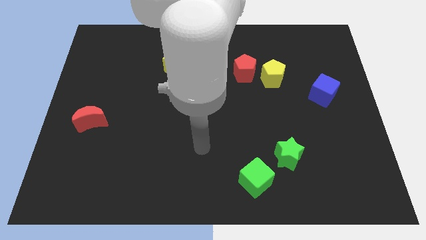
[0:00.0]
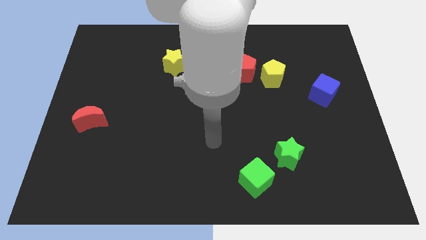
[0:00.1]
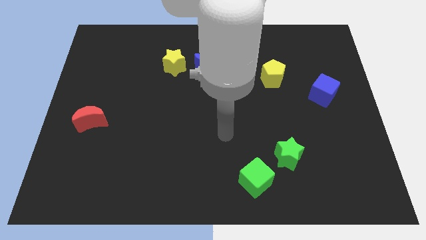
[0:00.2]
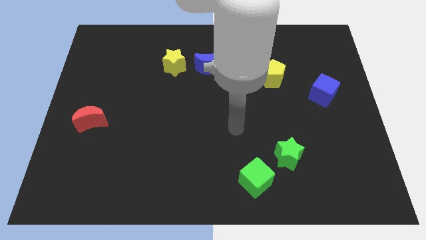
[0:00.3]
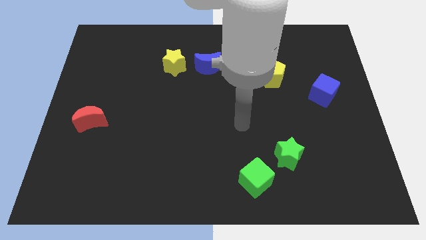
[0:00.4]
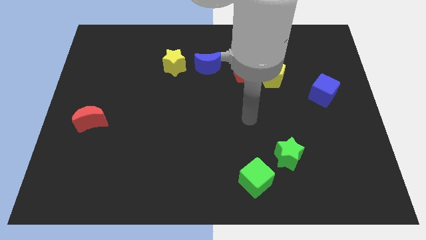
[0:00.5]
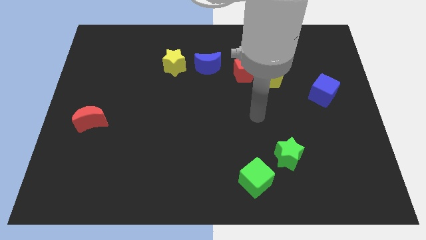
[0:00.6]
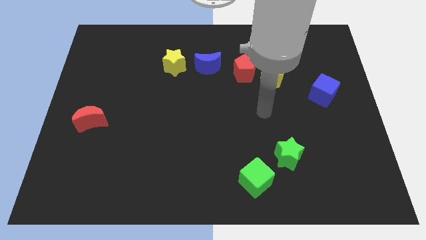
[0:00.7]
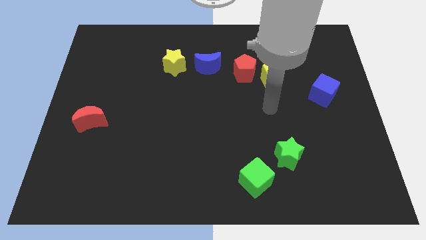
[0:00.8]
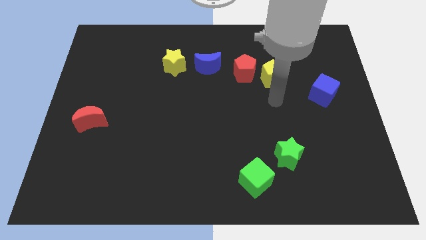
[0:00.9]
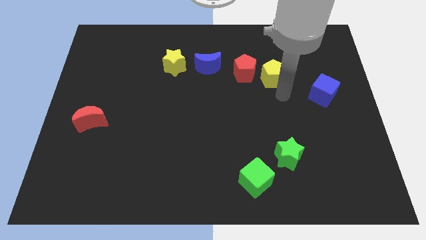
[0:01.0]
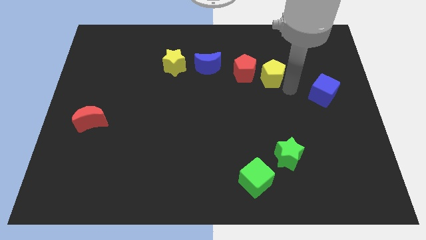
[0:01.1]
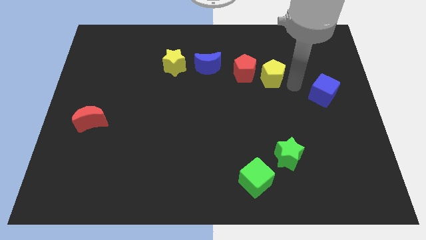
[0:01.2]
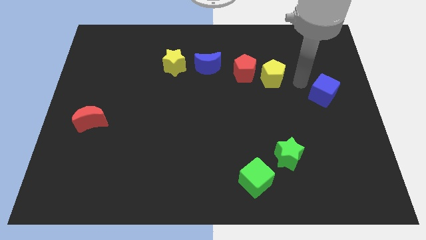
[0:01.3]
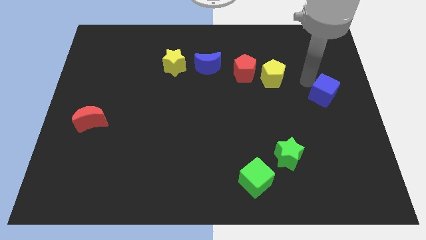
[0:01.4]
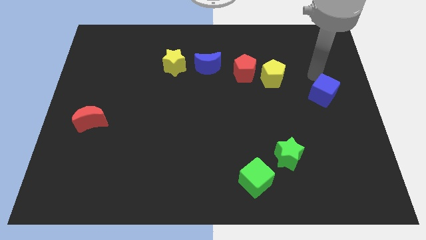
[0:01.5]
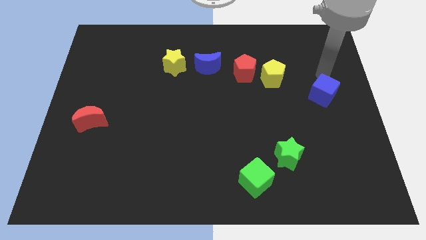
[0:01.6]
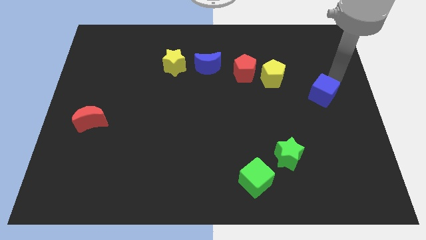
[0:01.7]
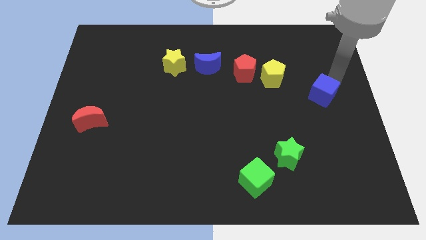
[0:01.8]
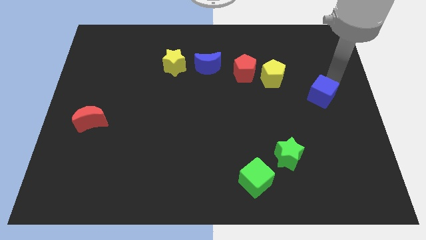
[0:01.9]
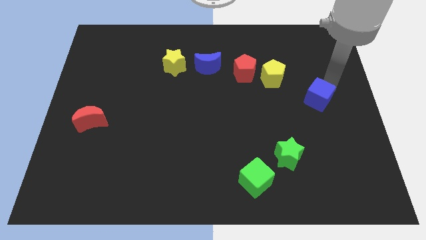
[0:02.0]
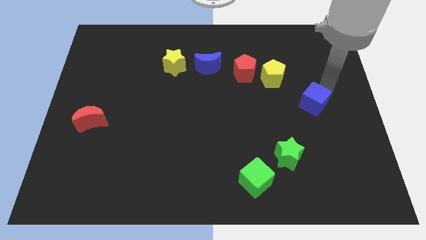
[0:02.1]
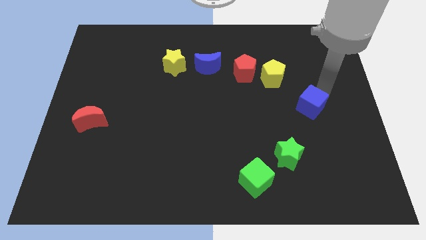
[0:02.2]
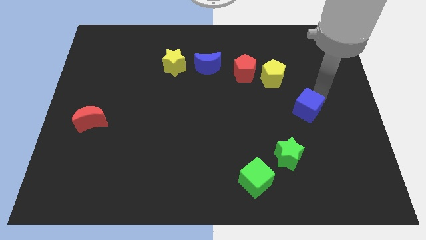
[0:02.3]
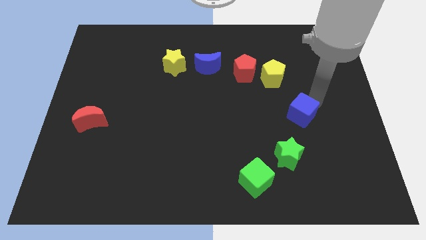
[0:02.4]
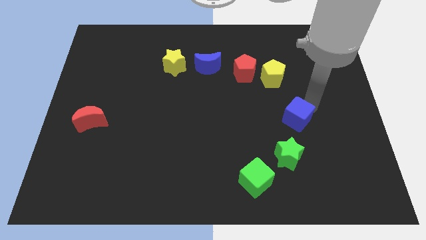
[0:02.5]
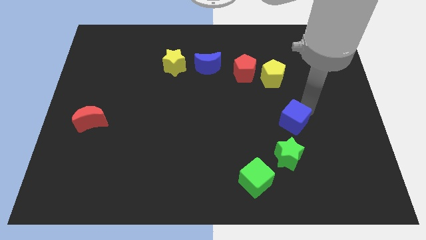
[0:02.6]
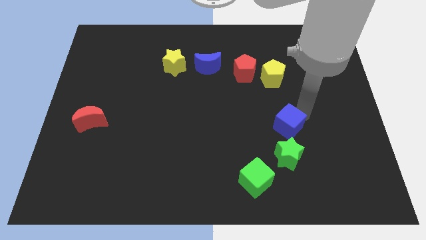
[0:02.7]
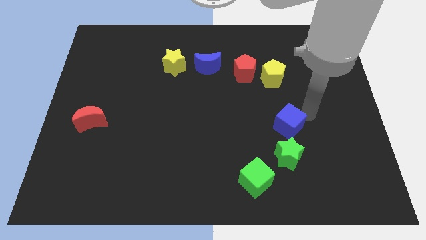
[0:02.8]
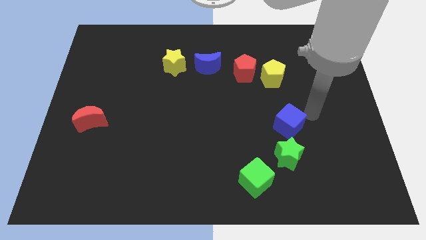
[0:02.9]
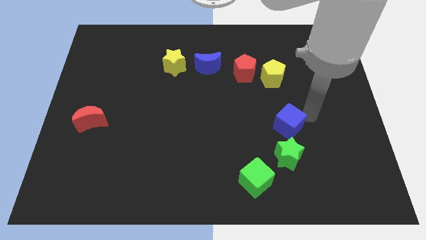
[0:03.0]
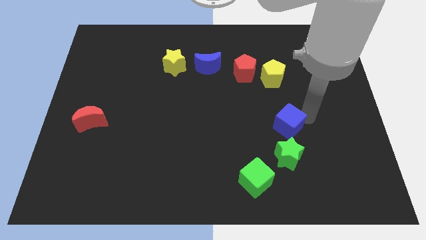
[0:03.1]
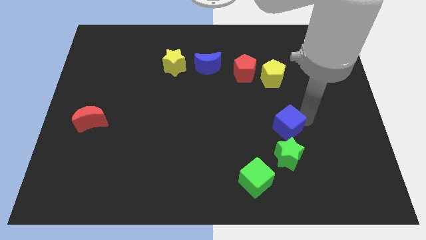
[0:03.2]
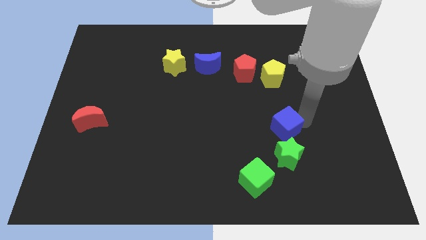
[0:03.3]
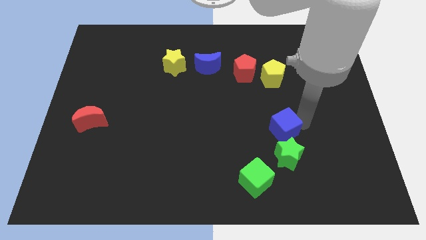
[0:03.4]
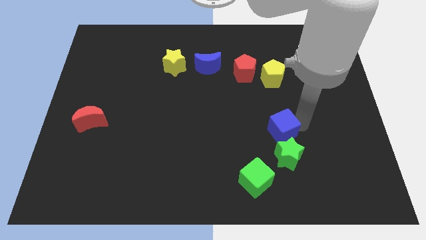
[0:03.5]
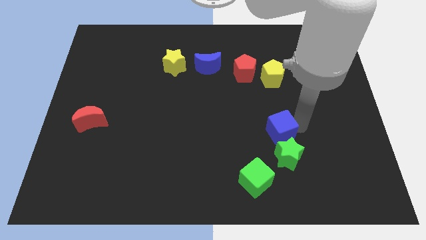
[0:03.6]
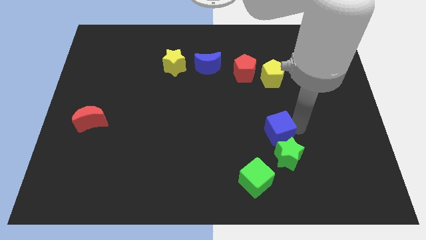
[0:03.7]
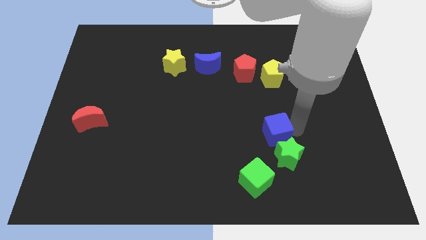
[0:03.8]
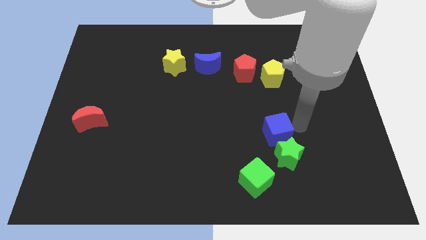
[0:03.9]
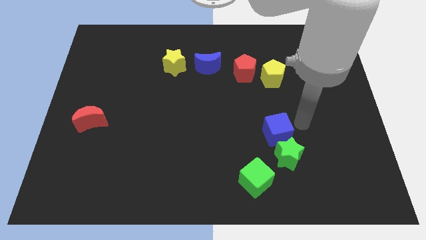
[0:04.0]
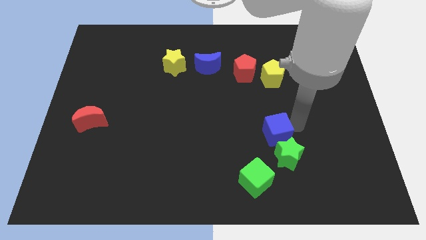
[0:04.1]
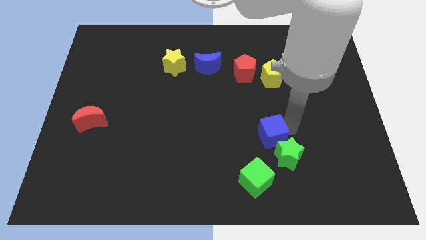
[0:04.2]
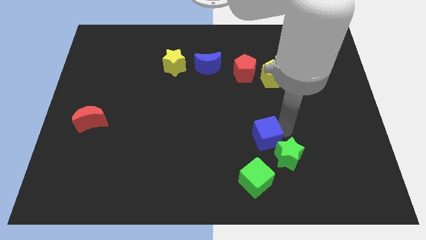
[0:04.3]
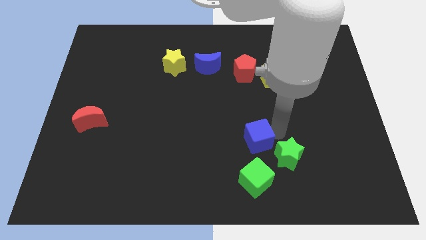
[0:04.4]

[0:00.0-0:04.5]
slide the blue cube downwards and then left

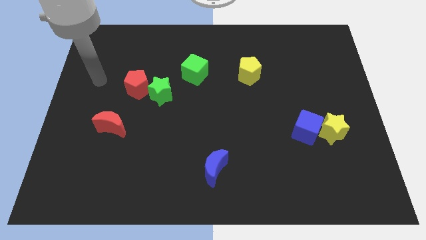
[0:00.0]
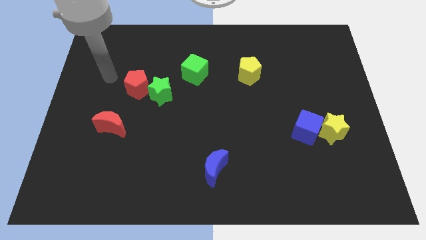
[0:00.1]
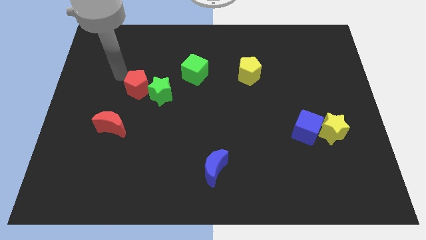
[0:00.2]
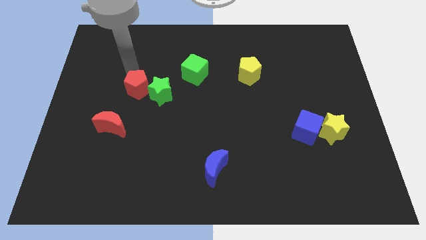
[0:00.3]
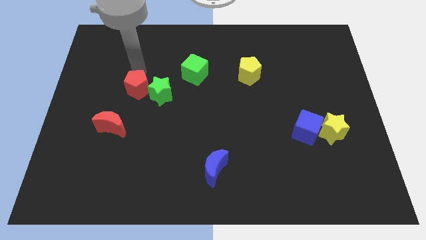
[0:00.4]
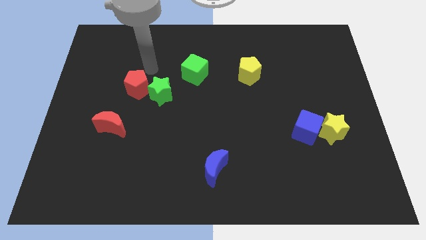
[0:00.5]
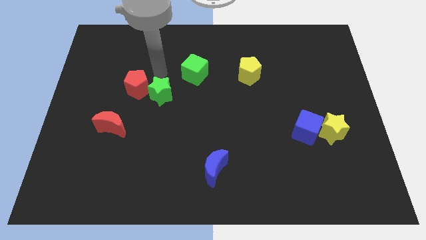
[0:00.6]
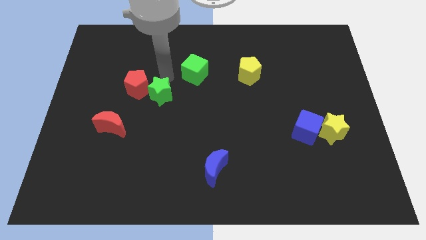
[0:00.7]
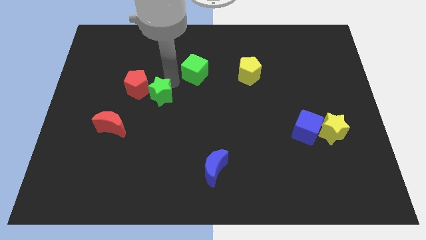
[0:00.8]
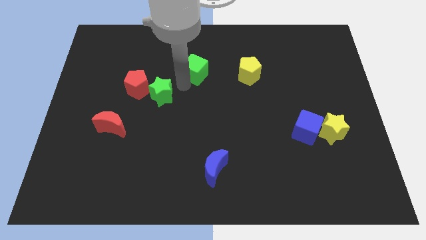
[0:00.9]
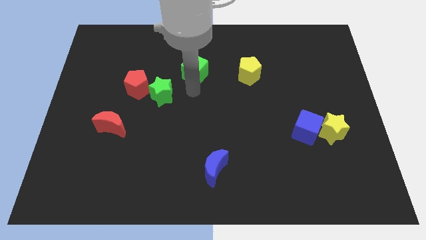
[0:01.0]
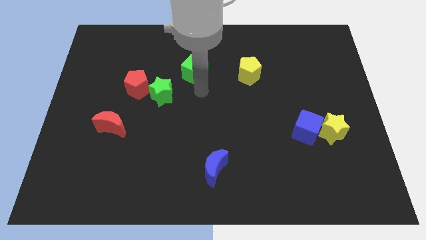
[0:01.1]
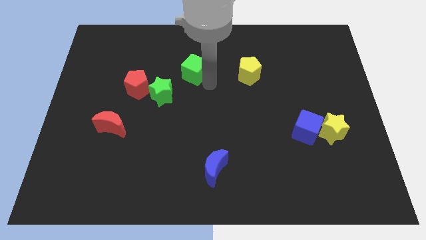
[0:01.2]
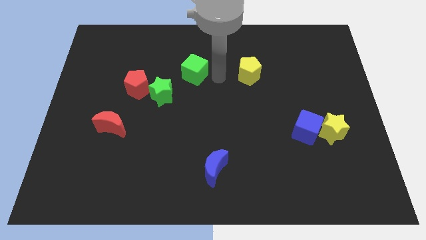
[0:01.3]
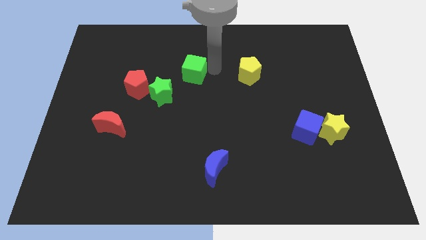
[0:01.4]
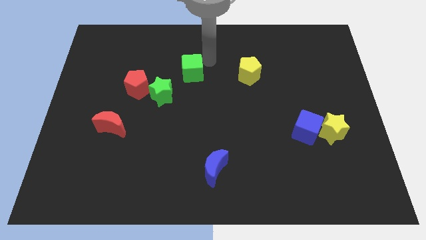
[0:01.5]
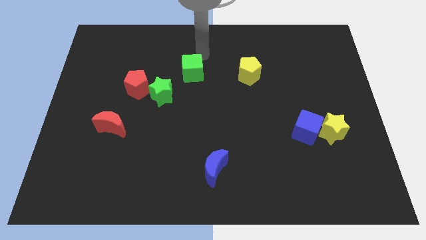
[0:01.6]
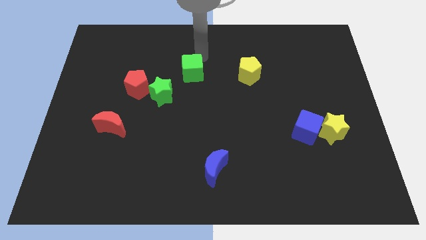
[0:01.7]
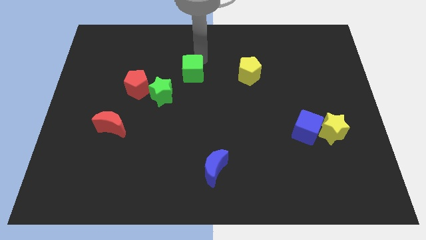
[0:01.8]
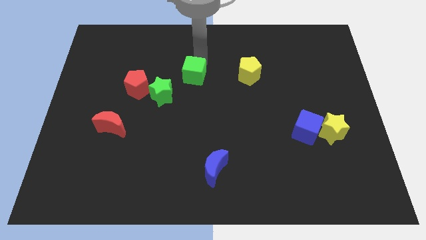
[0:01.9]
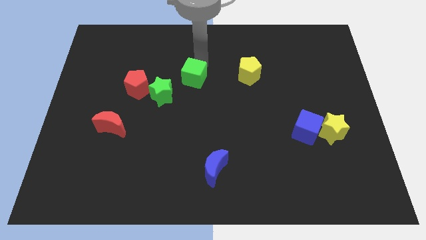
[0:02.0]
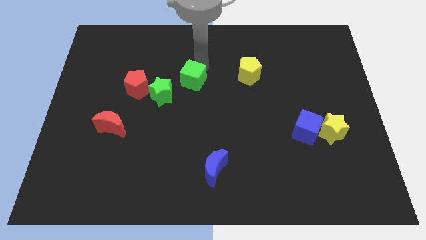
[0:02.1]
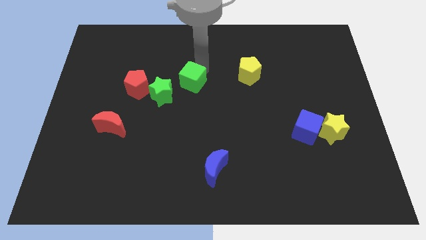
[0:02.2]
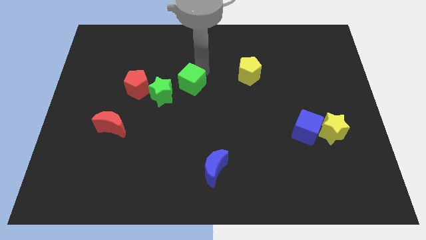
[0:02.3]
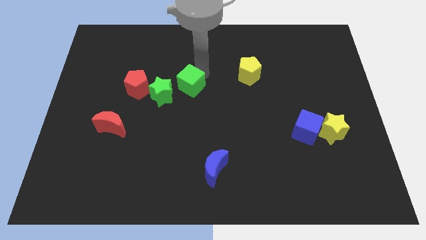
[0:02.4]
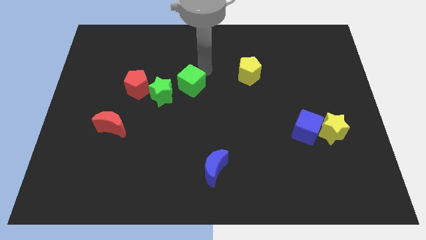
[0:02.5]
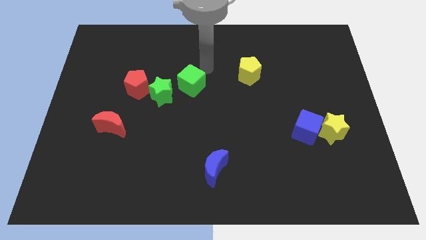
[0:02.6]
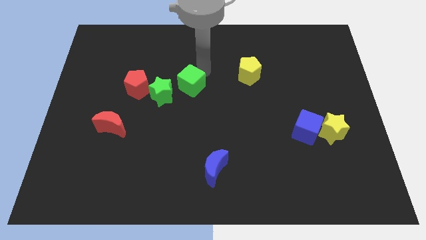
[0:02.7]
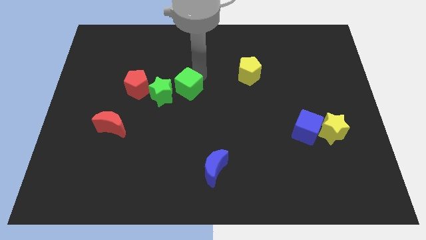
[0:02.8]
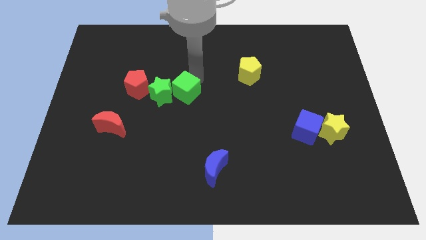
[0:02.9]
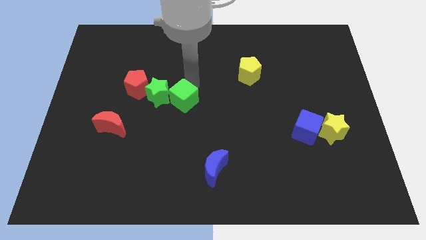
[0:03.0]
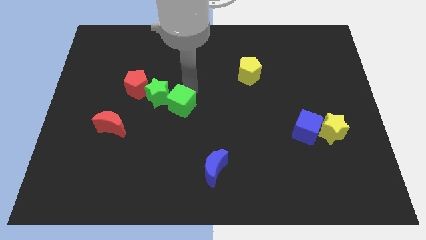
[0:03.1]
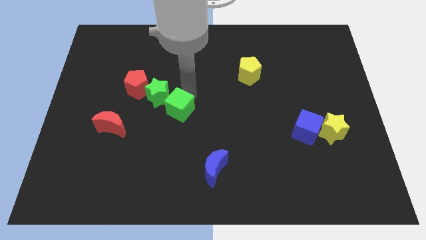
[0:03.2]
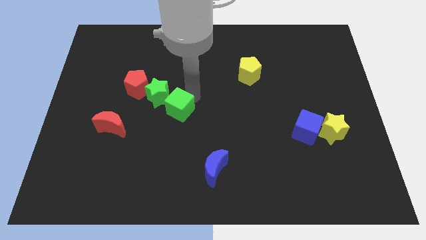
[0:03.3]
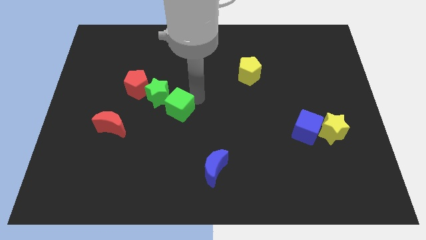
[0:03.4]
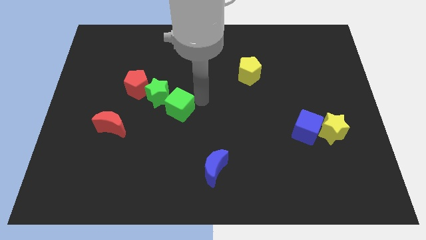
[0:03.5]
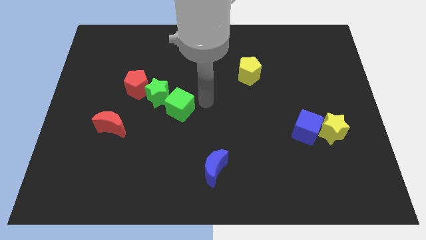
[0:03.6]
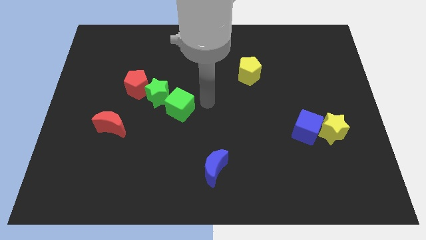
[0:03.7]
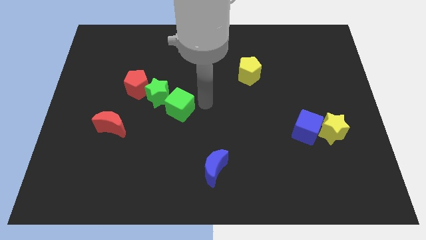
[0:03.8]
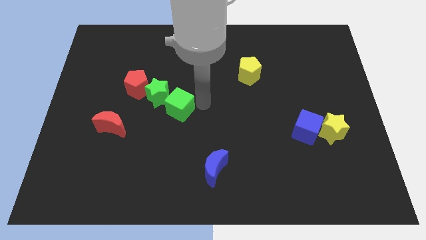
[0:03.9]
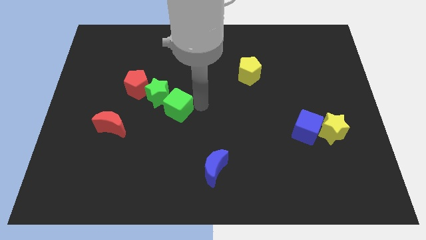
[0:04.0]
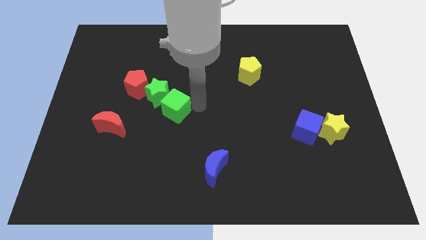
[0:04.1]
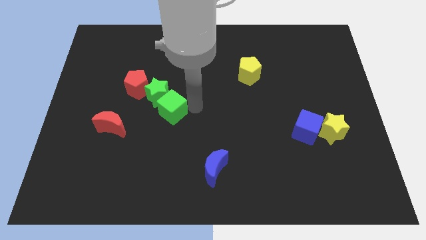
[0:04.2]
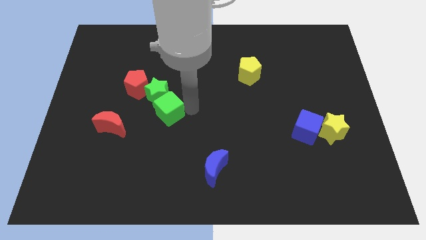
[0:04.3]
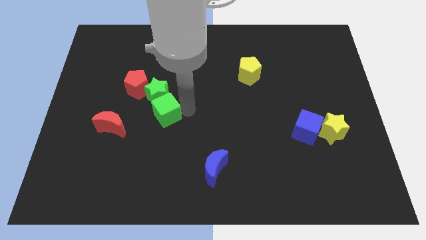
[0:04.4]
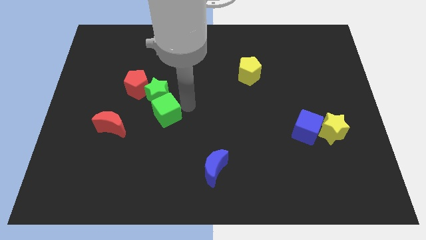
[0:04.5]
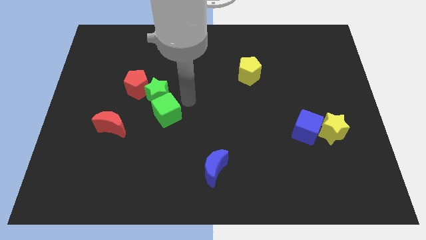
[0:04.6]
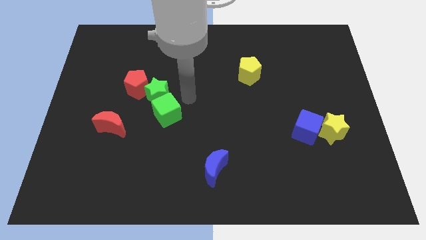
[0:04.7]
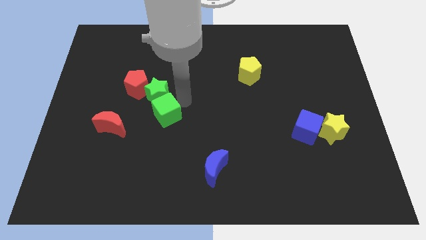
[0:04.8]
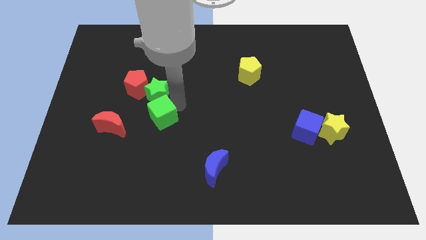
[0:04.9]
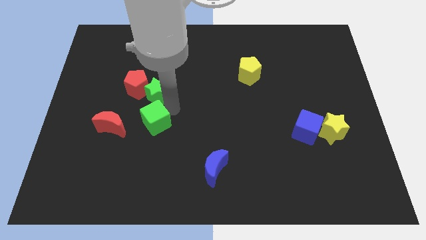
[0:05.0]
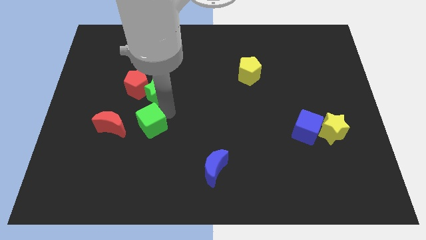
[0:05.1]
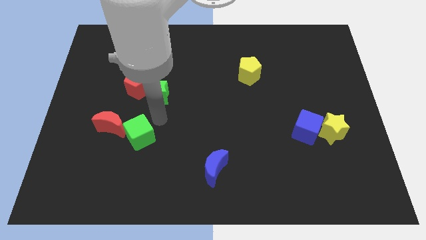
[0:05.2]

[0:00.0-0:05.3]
slide the green cube down and then to the left
